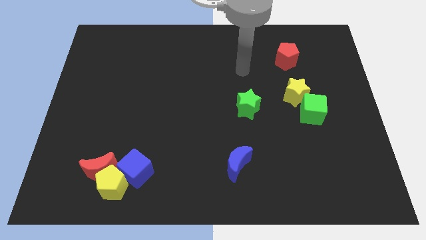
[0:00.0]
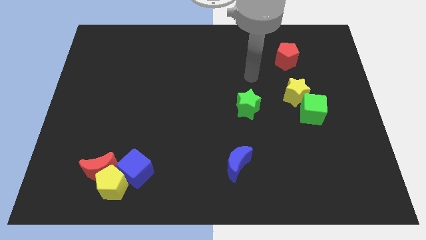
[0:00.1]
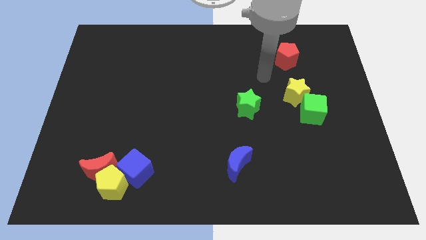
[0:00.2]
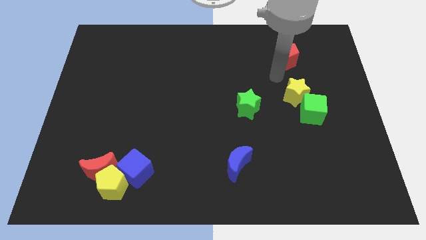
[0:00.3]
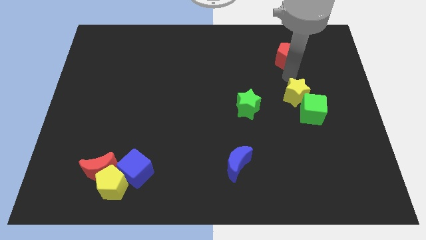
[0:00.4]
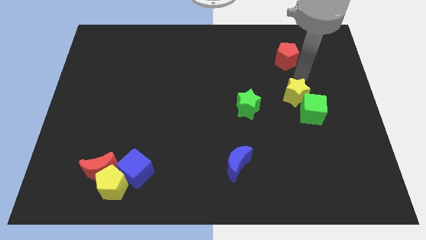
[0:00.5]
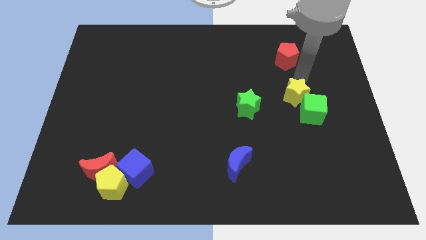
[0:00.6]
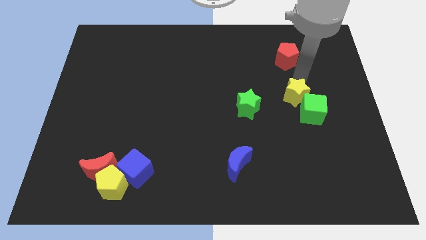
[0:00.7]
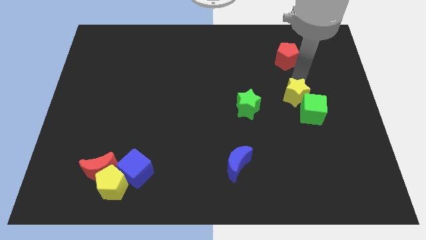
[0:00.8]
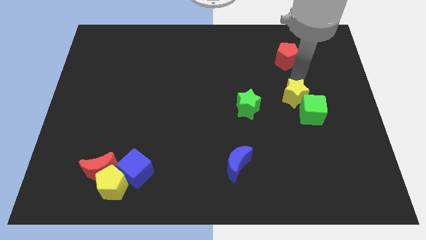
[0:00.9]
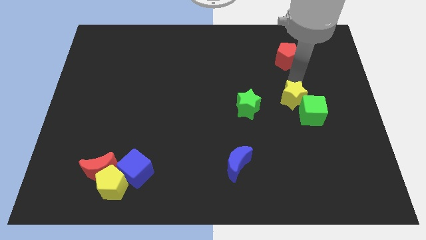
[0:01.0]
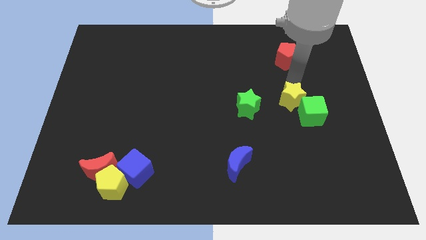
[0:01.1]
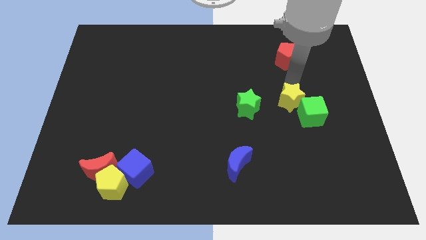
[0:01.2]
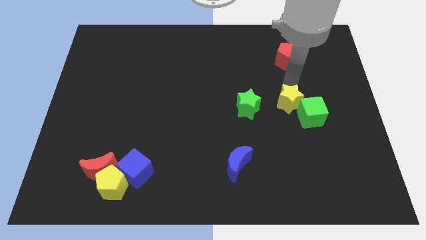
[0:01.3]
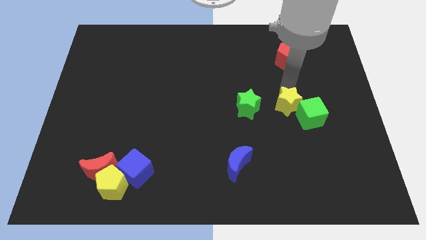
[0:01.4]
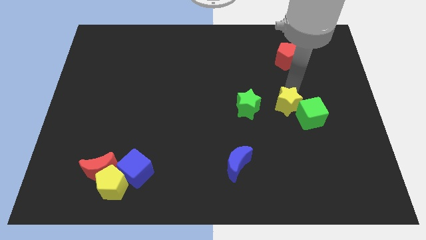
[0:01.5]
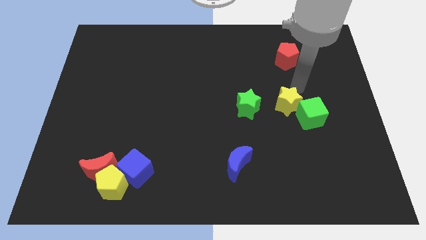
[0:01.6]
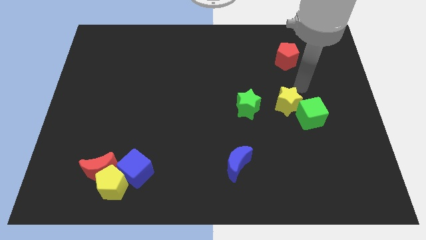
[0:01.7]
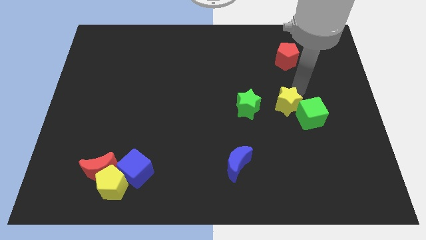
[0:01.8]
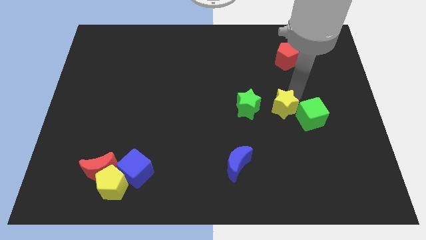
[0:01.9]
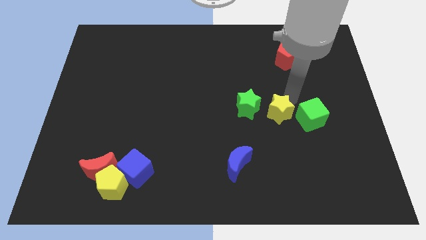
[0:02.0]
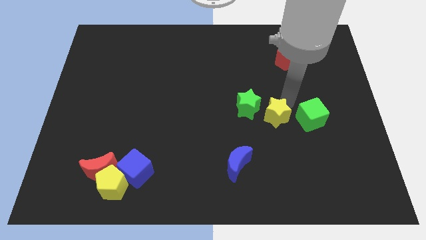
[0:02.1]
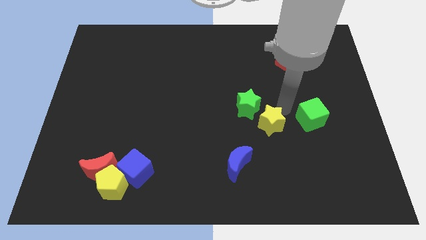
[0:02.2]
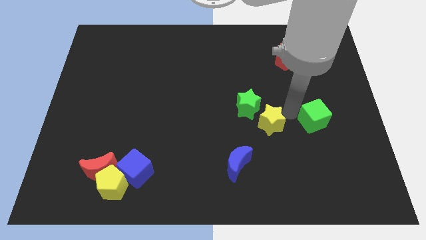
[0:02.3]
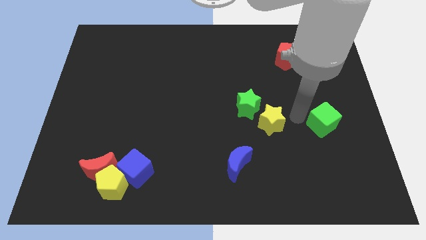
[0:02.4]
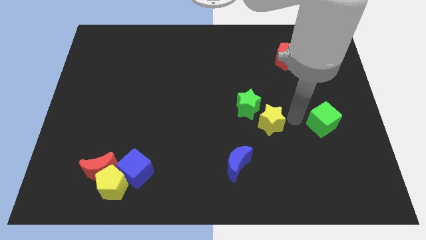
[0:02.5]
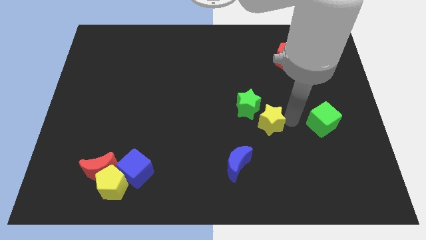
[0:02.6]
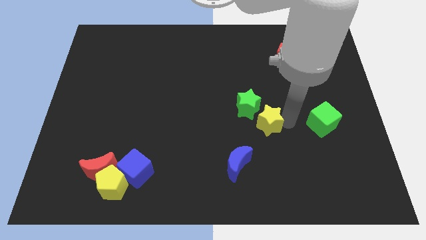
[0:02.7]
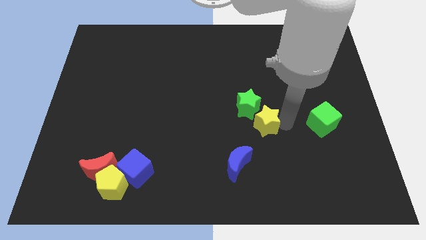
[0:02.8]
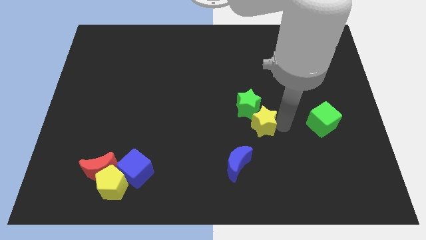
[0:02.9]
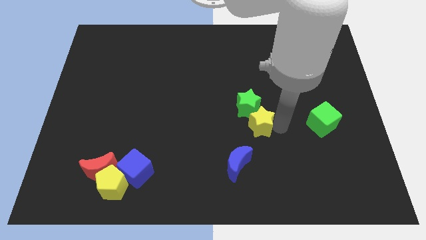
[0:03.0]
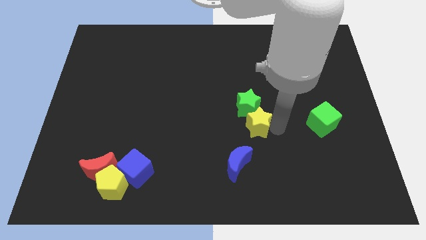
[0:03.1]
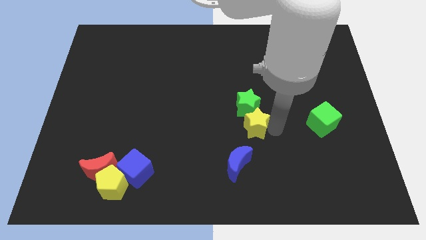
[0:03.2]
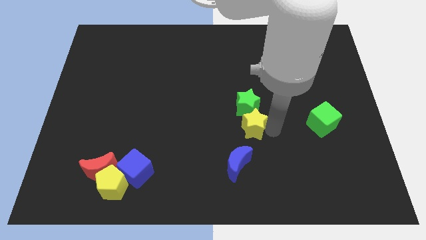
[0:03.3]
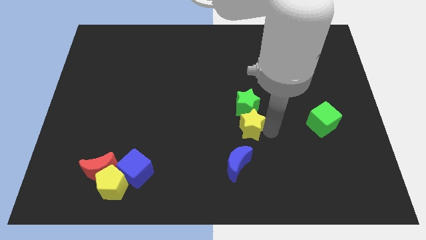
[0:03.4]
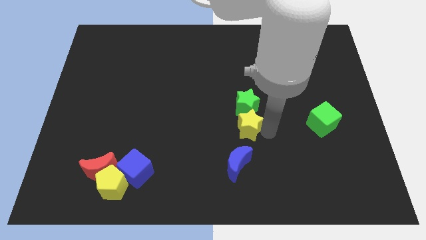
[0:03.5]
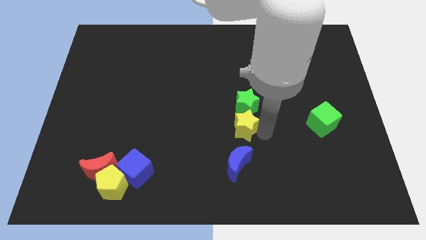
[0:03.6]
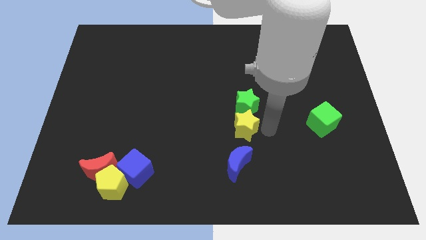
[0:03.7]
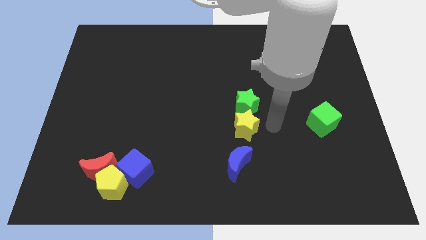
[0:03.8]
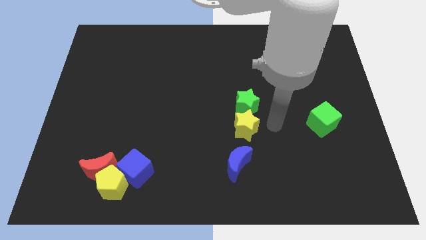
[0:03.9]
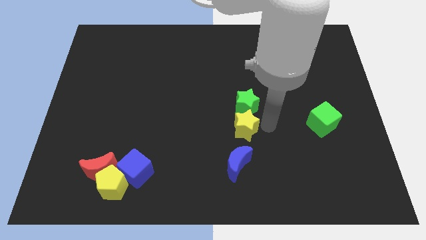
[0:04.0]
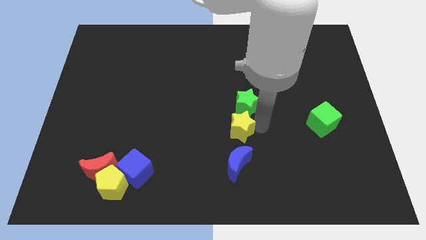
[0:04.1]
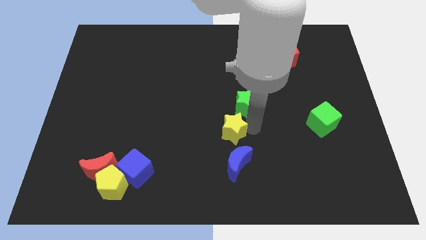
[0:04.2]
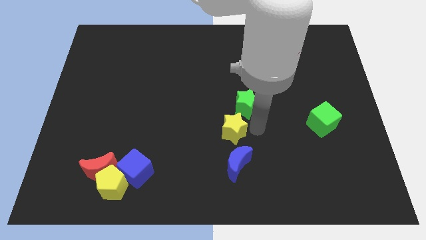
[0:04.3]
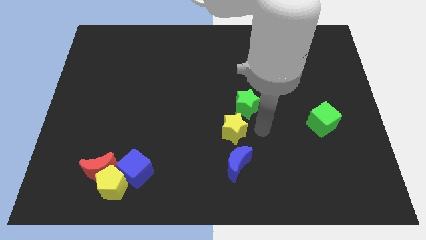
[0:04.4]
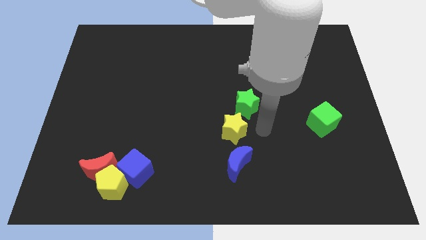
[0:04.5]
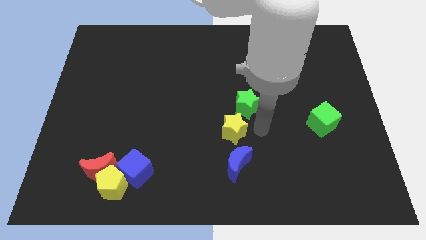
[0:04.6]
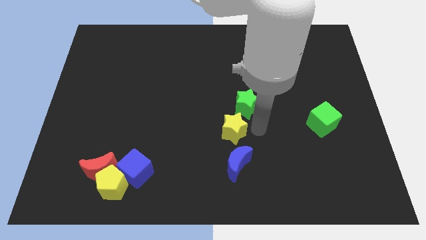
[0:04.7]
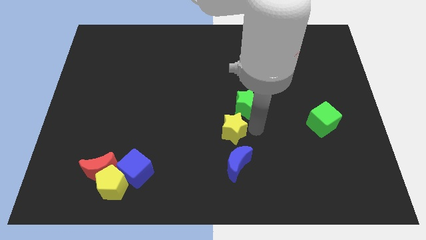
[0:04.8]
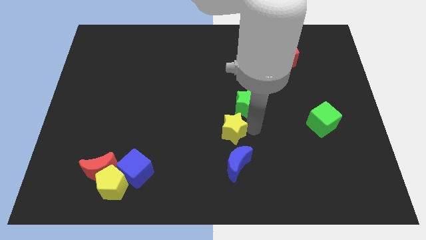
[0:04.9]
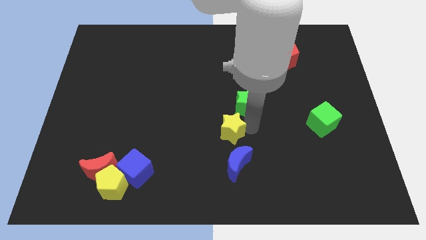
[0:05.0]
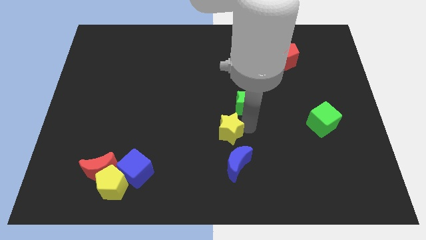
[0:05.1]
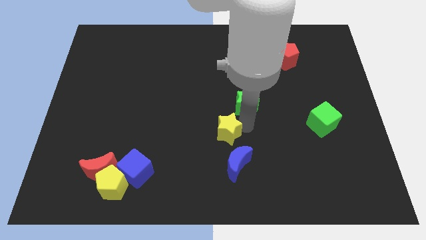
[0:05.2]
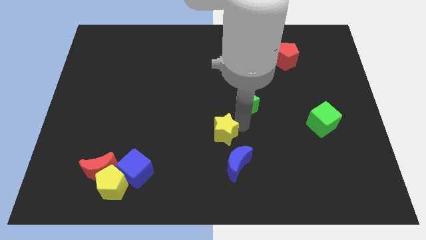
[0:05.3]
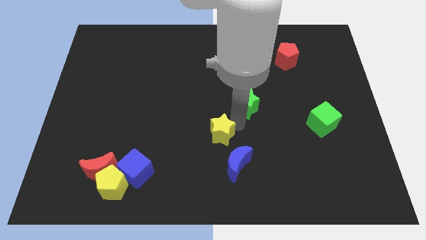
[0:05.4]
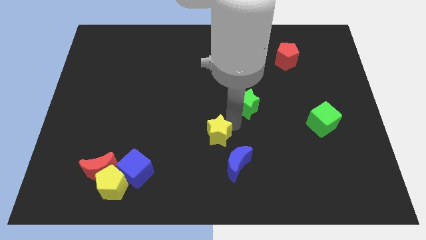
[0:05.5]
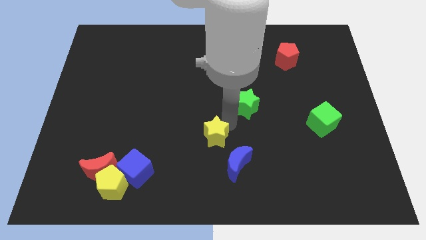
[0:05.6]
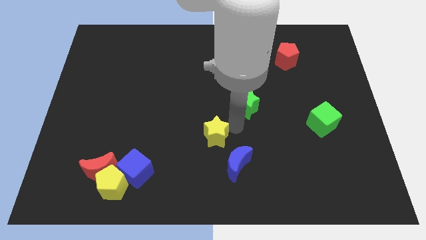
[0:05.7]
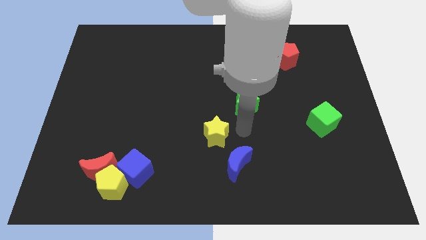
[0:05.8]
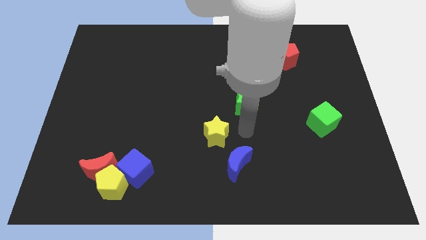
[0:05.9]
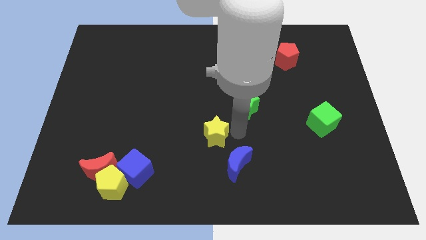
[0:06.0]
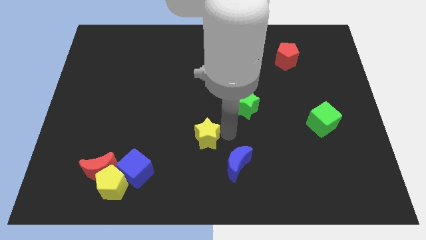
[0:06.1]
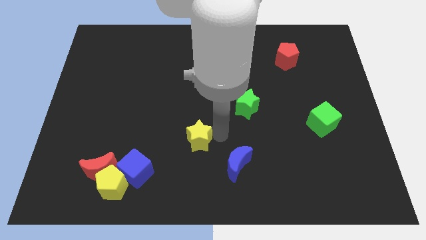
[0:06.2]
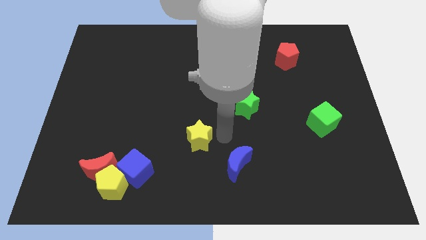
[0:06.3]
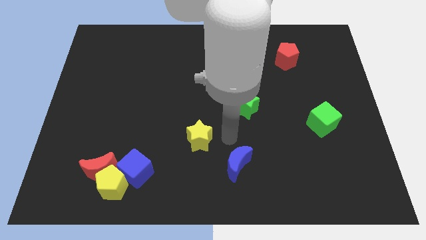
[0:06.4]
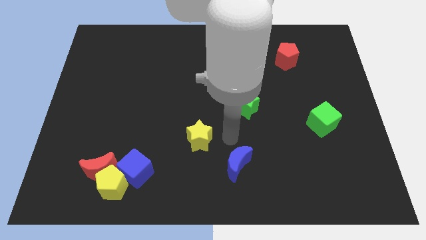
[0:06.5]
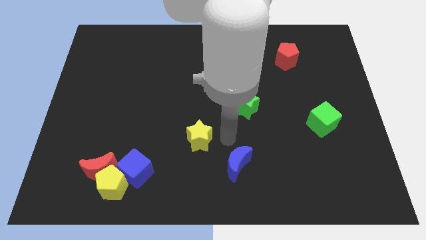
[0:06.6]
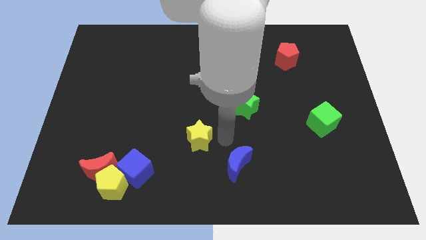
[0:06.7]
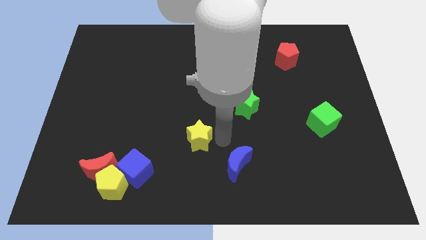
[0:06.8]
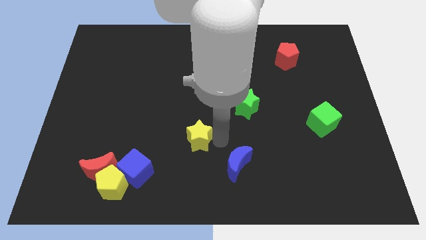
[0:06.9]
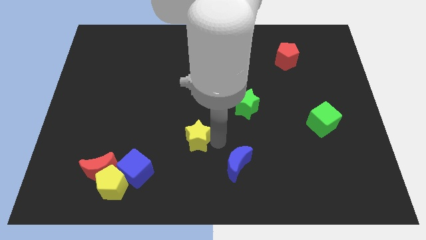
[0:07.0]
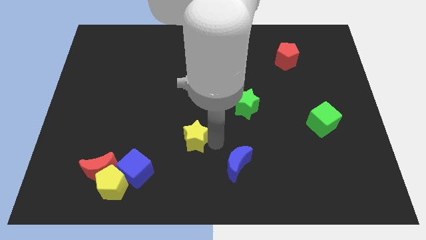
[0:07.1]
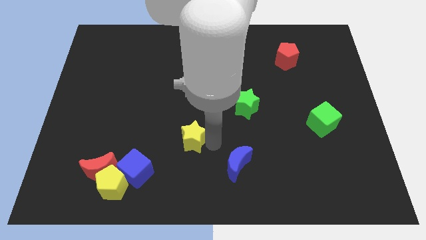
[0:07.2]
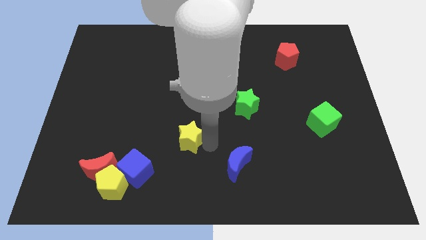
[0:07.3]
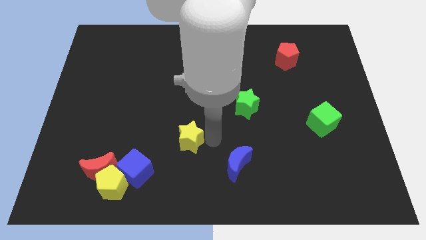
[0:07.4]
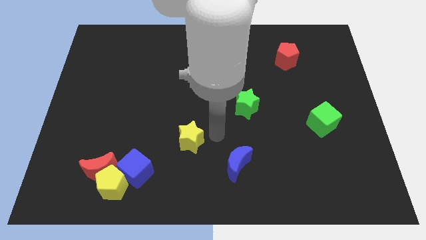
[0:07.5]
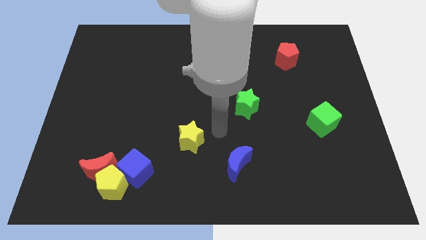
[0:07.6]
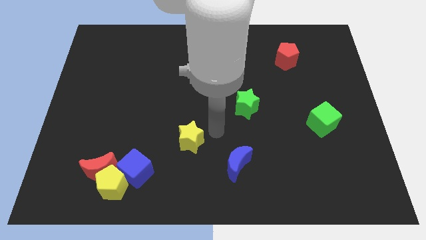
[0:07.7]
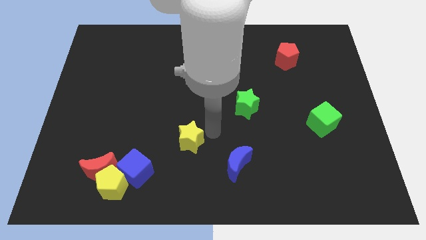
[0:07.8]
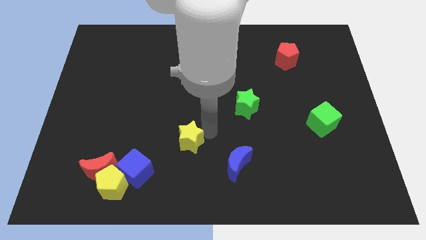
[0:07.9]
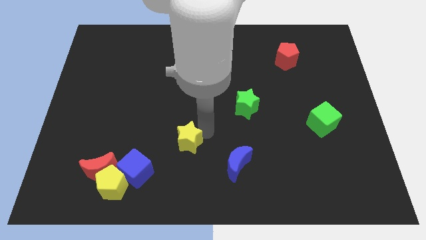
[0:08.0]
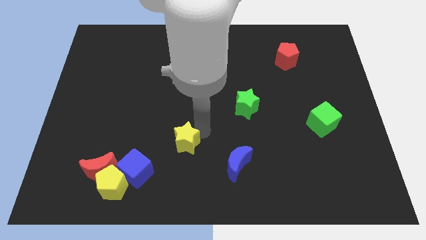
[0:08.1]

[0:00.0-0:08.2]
move the yellow star to the top right side of the blue cube
